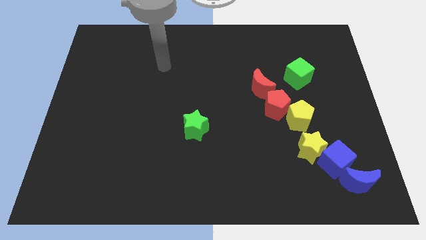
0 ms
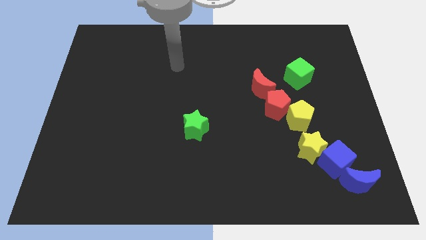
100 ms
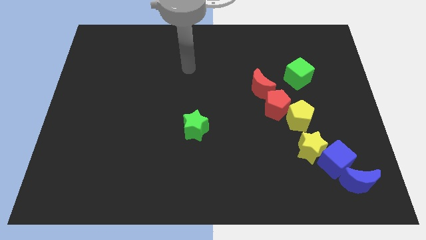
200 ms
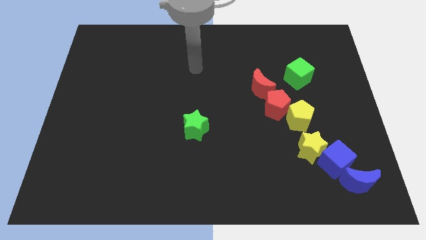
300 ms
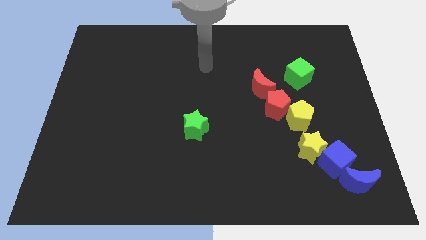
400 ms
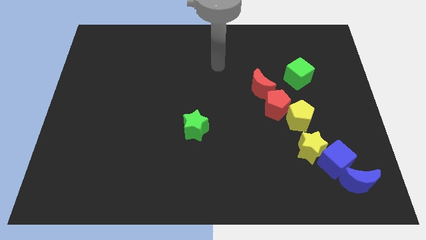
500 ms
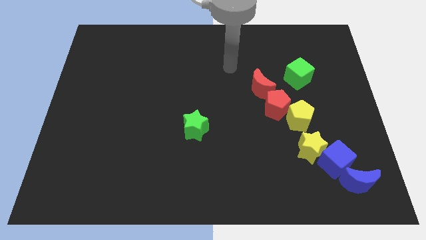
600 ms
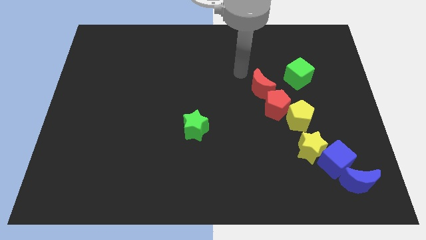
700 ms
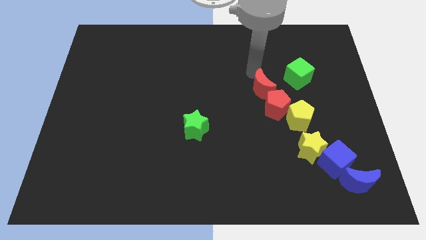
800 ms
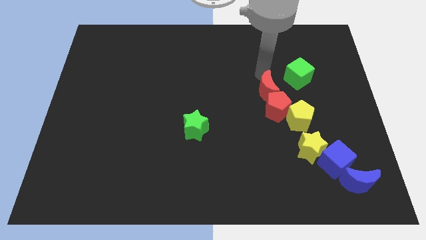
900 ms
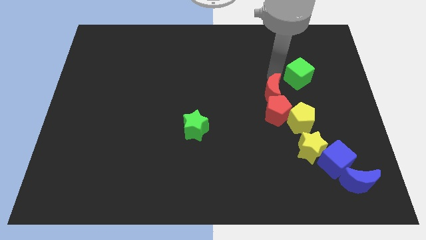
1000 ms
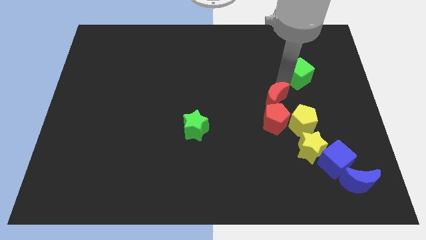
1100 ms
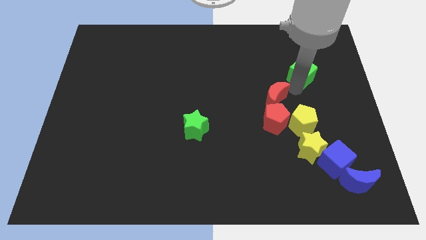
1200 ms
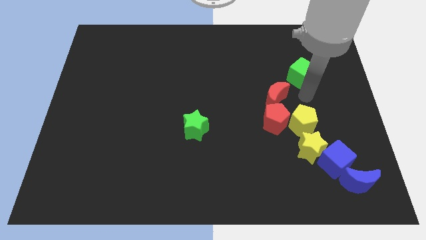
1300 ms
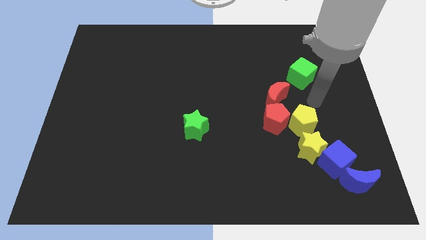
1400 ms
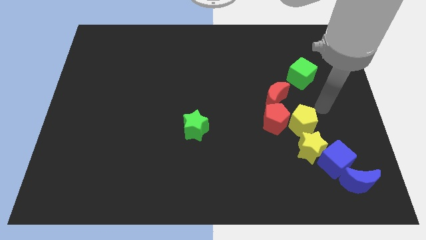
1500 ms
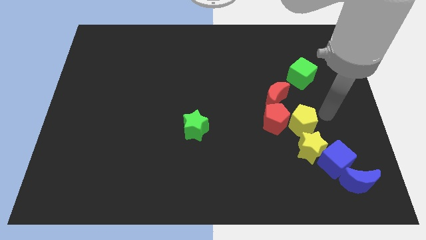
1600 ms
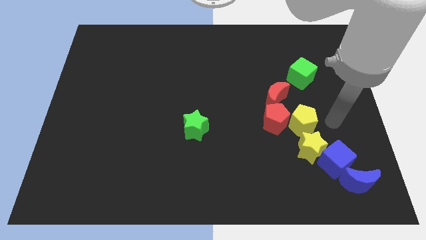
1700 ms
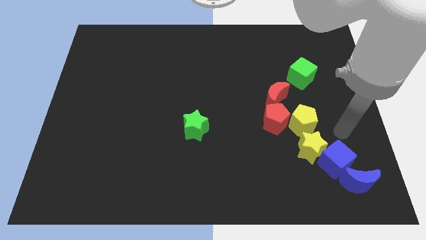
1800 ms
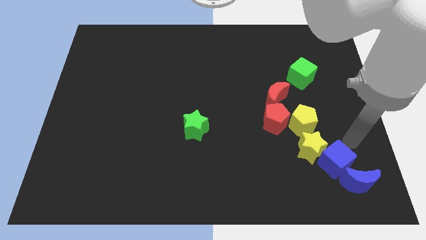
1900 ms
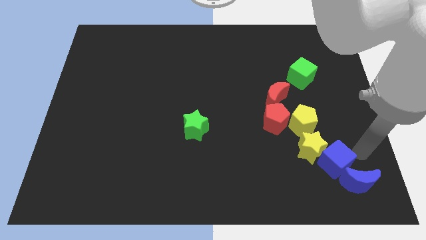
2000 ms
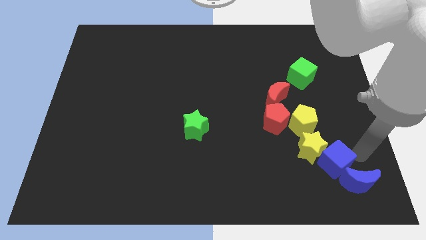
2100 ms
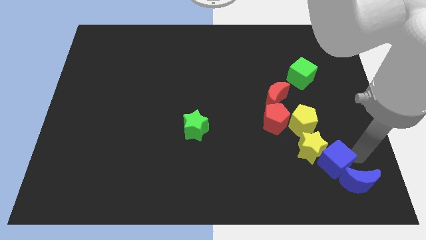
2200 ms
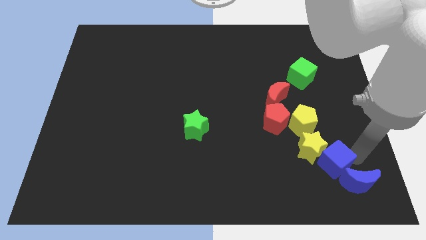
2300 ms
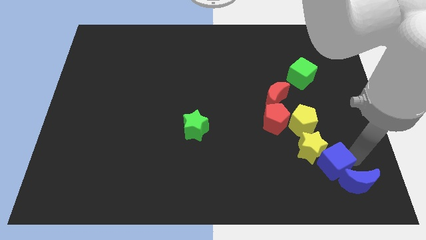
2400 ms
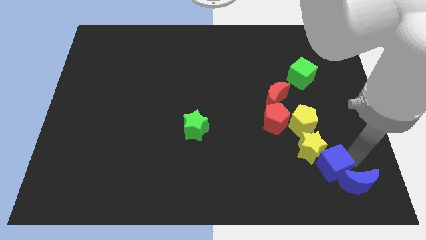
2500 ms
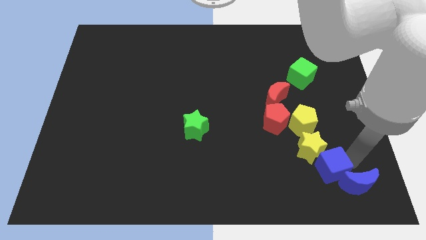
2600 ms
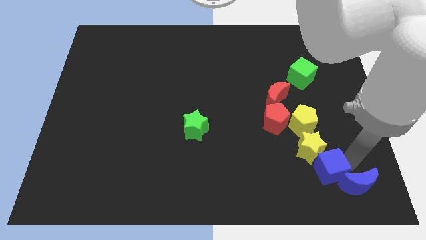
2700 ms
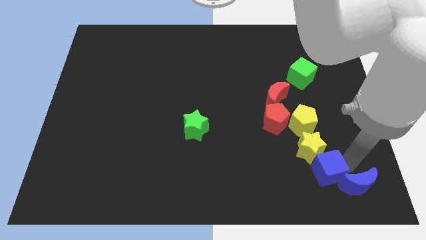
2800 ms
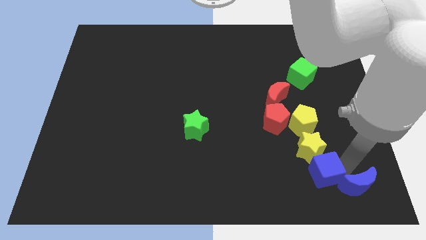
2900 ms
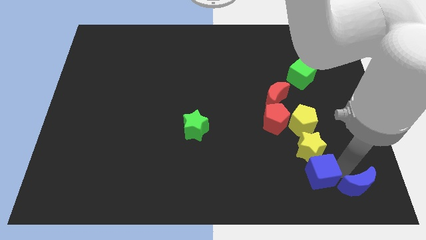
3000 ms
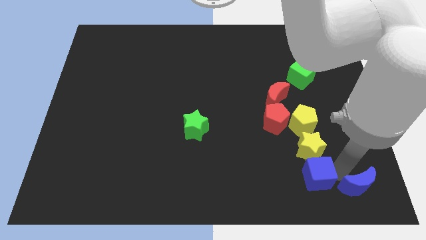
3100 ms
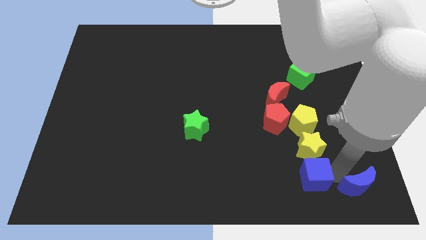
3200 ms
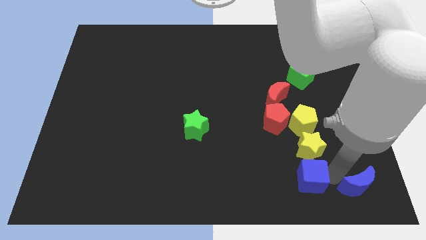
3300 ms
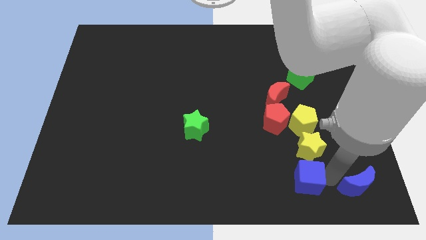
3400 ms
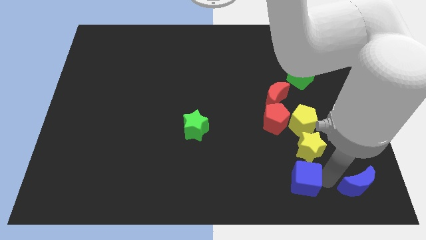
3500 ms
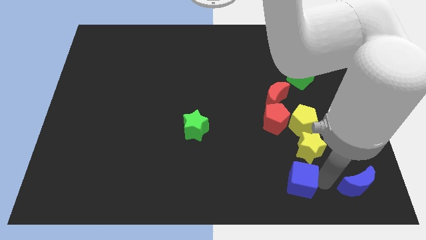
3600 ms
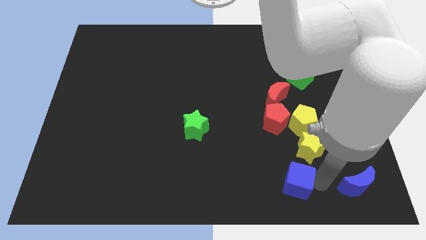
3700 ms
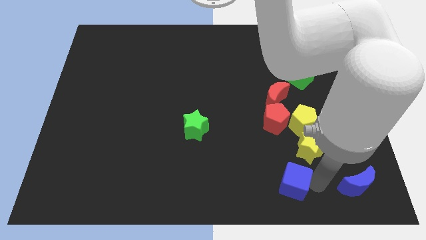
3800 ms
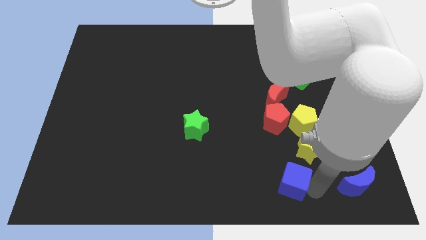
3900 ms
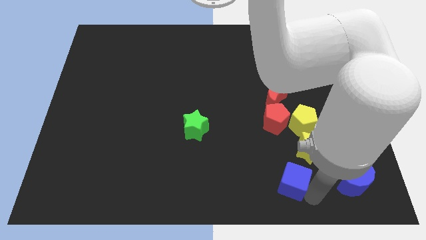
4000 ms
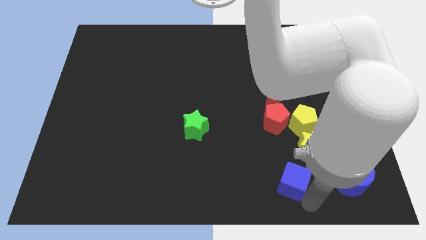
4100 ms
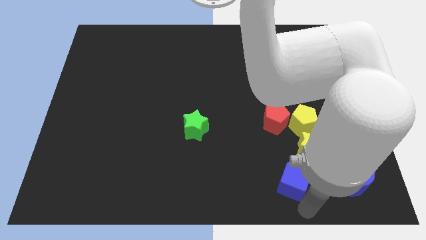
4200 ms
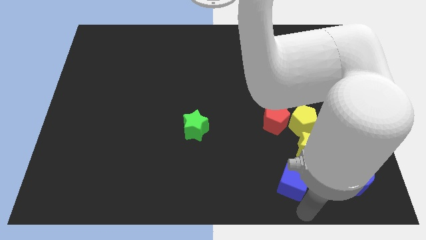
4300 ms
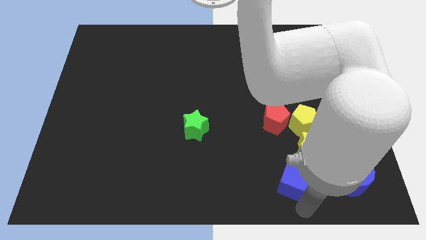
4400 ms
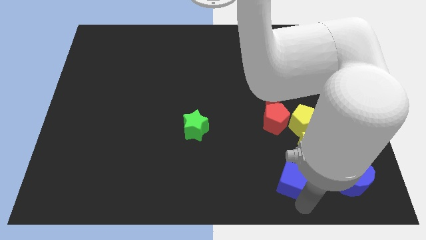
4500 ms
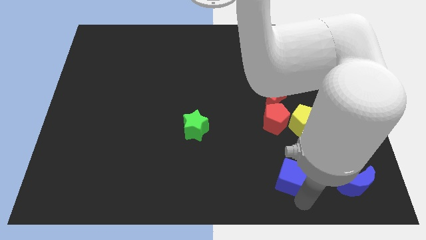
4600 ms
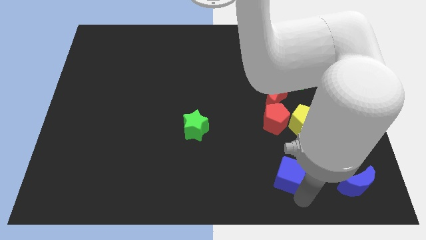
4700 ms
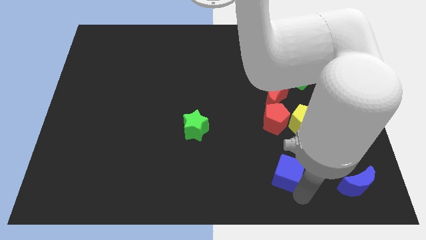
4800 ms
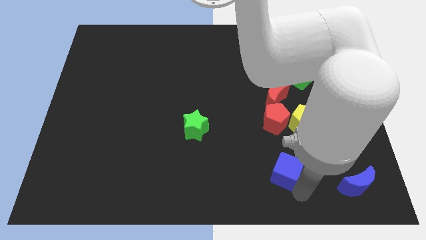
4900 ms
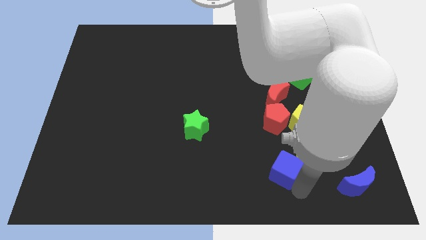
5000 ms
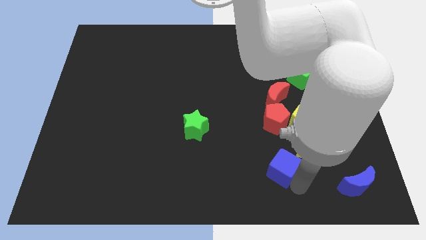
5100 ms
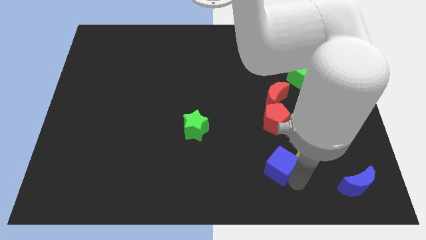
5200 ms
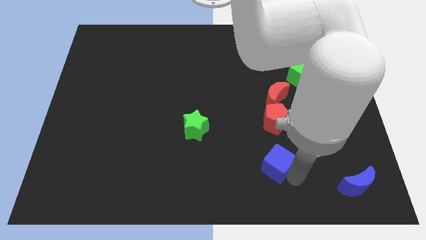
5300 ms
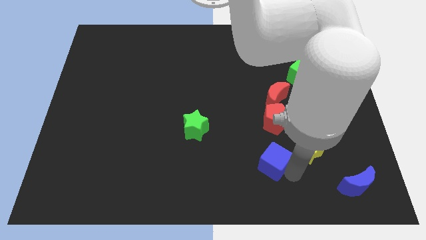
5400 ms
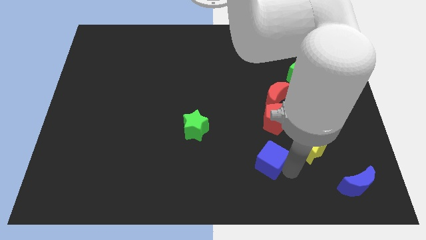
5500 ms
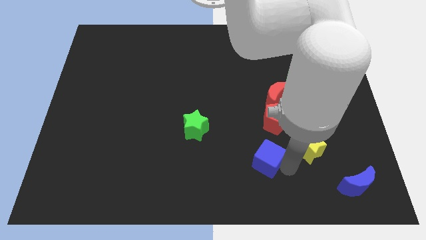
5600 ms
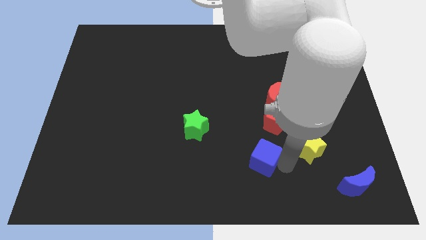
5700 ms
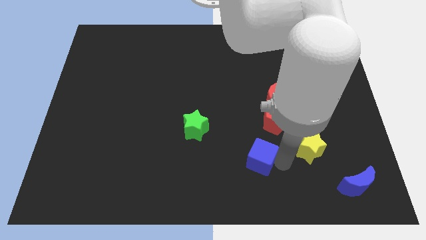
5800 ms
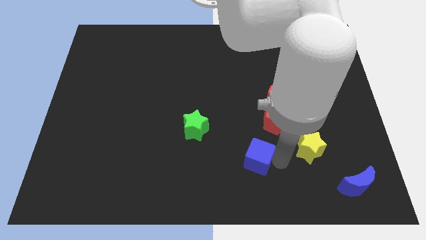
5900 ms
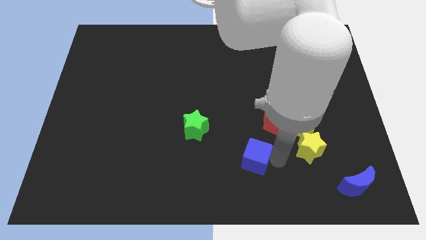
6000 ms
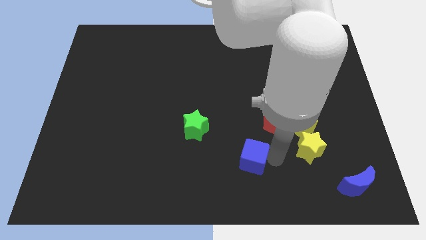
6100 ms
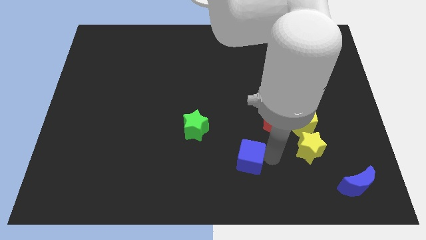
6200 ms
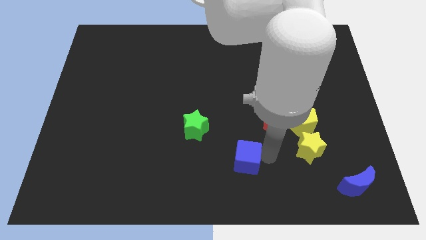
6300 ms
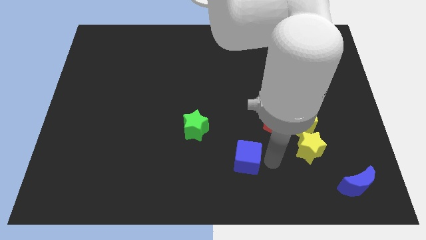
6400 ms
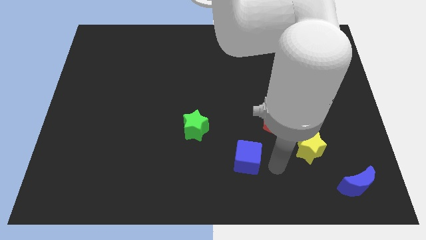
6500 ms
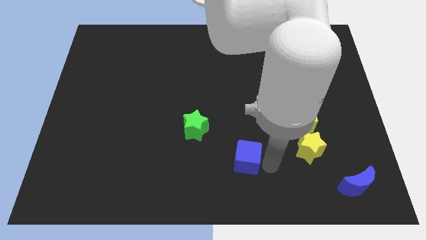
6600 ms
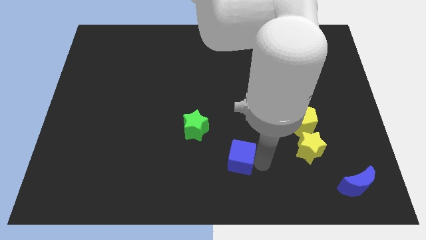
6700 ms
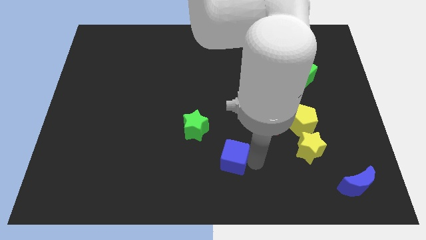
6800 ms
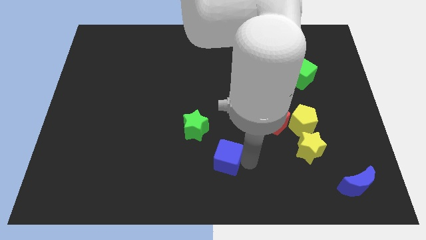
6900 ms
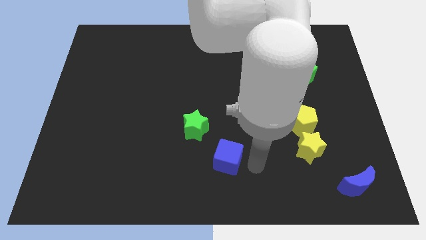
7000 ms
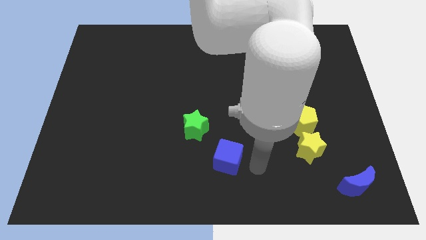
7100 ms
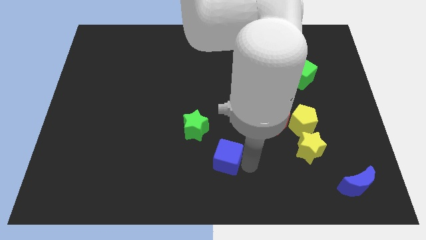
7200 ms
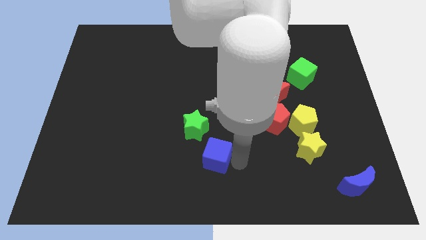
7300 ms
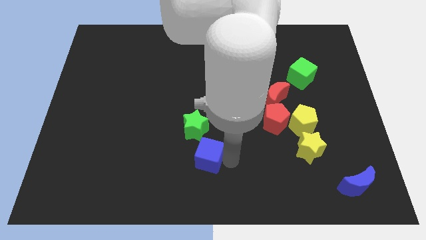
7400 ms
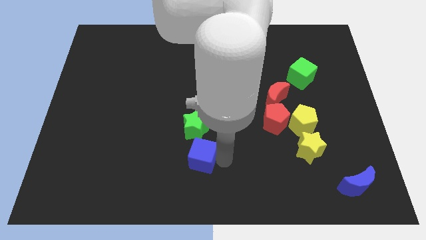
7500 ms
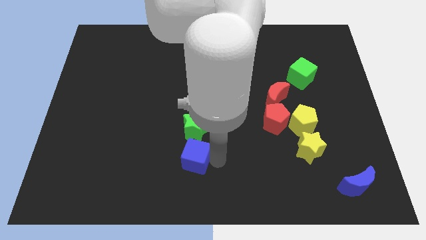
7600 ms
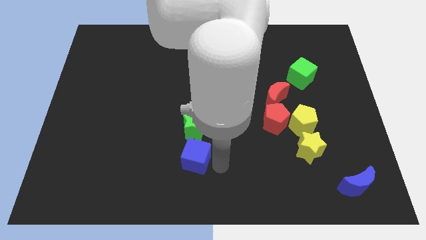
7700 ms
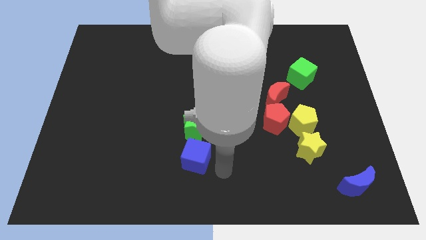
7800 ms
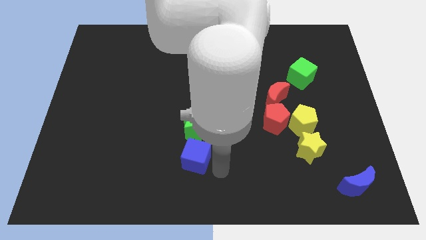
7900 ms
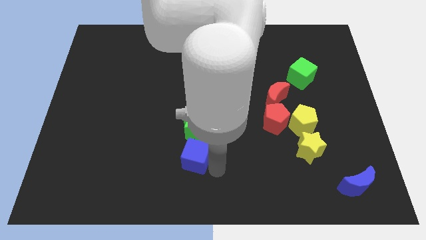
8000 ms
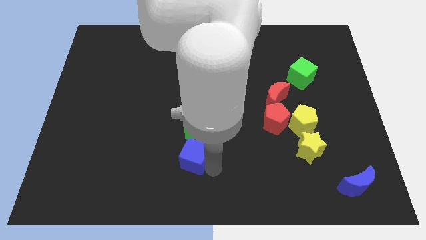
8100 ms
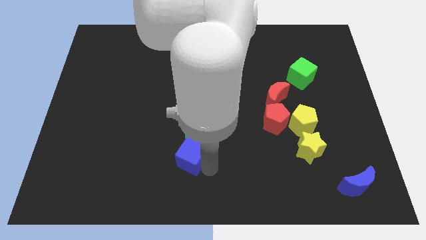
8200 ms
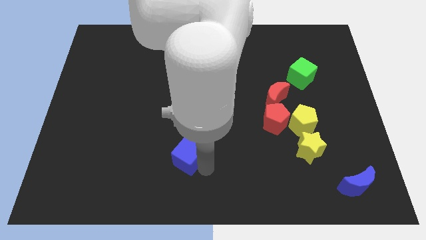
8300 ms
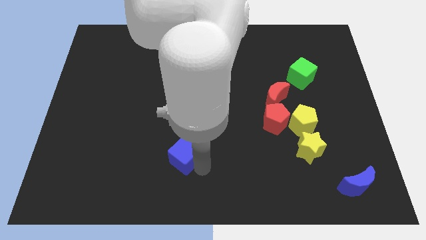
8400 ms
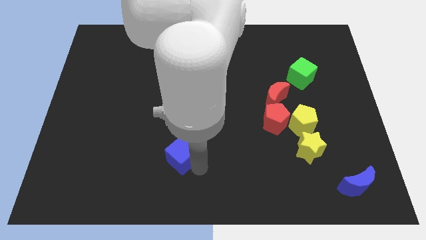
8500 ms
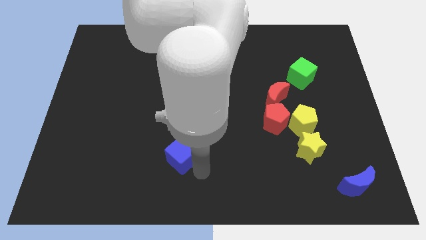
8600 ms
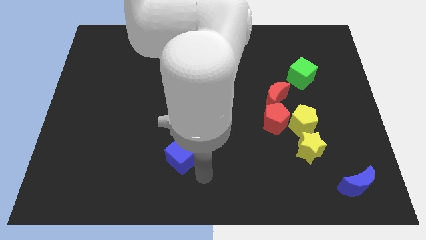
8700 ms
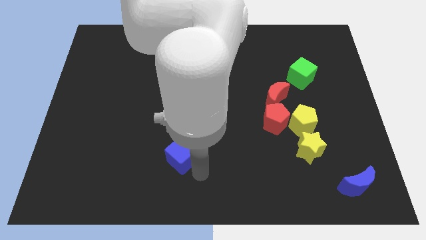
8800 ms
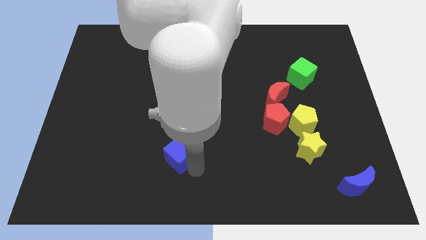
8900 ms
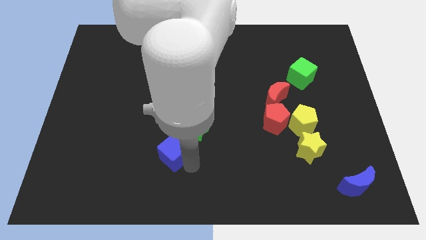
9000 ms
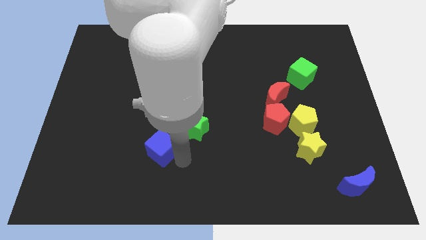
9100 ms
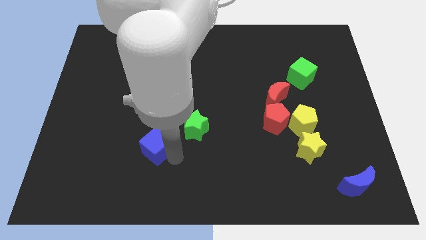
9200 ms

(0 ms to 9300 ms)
slide the blue cube to the left of the green star
